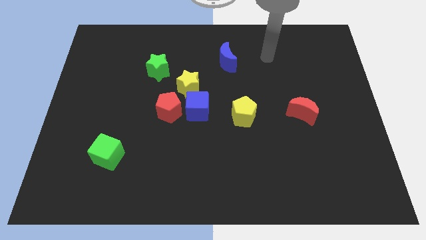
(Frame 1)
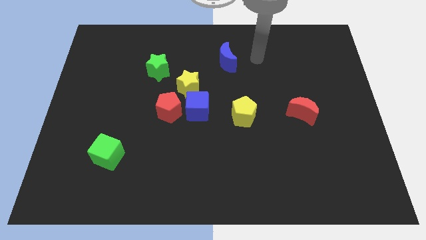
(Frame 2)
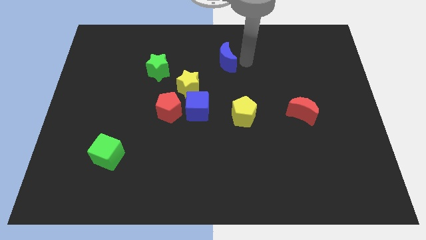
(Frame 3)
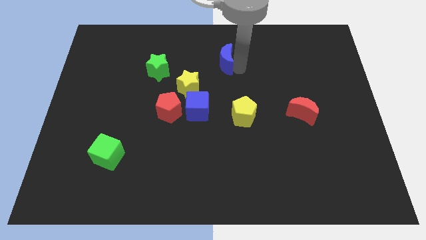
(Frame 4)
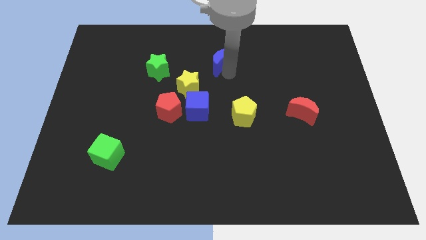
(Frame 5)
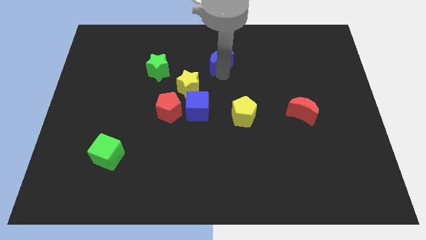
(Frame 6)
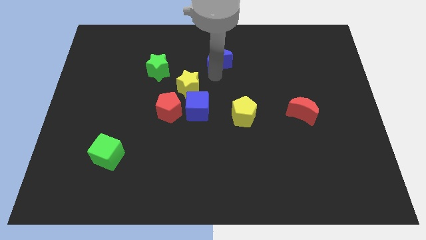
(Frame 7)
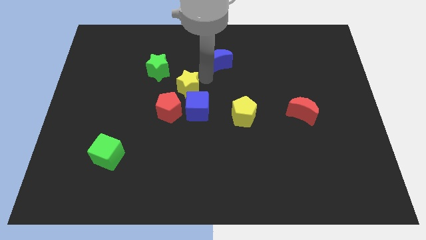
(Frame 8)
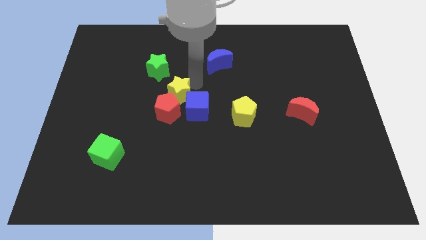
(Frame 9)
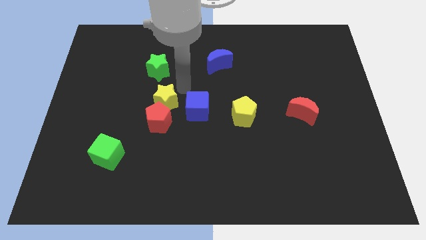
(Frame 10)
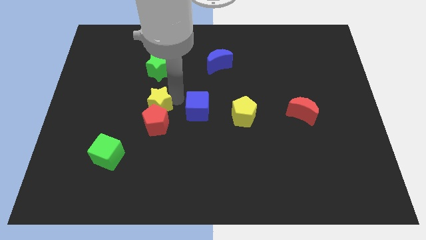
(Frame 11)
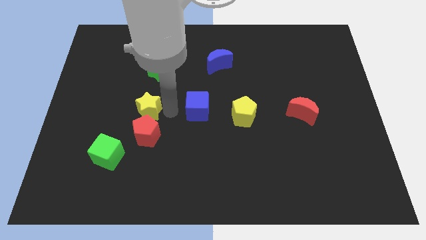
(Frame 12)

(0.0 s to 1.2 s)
pull the blue cube apart from the red pentagon and yellow star

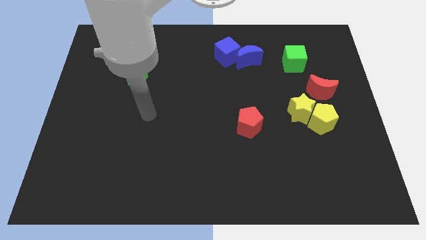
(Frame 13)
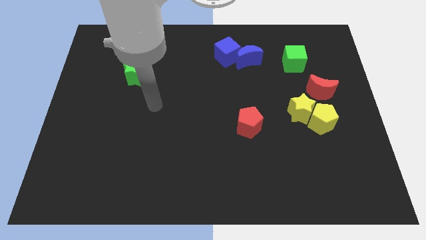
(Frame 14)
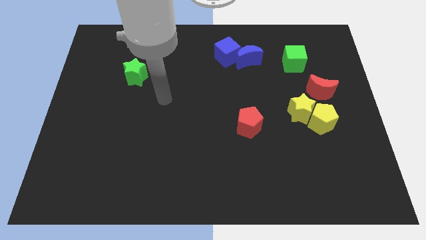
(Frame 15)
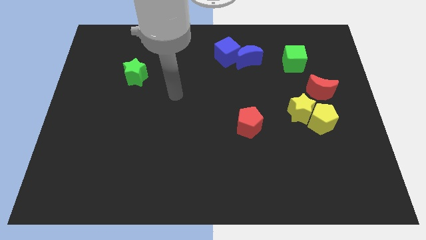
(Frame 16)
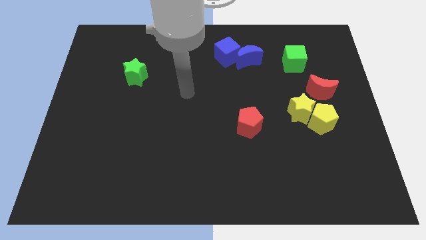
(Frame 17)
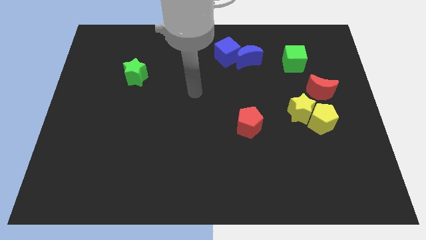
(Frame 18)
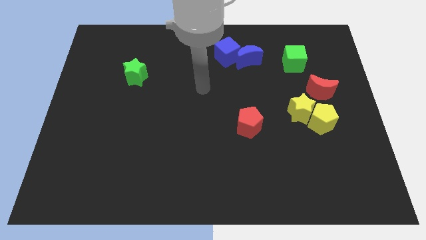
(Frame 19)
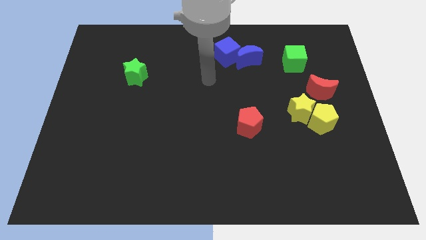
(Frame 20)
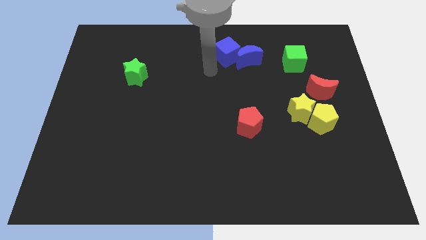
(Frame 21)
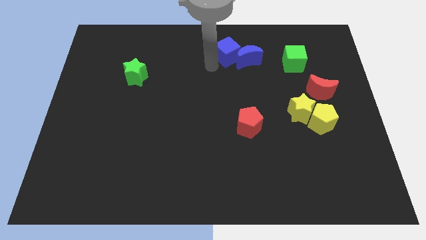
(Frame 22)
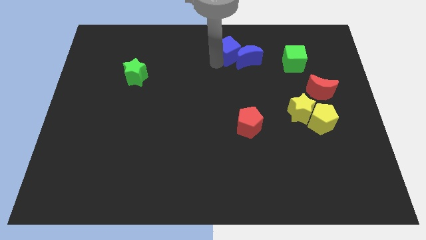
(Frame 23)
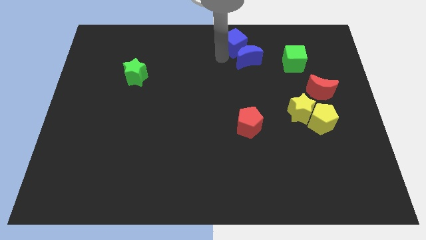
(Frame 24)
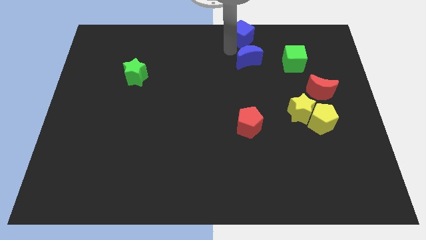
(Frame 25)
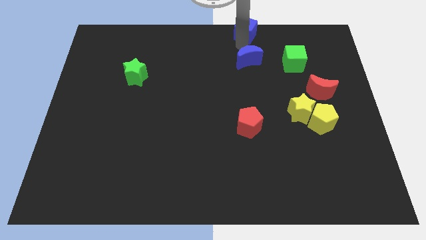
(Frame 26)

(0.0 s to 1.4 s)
pull the blue moon apart from the blue cube

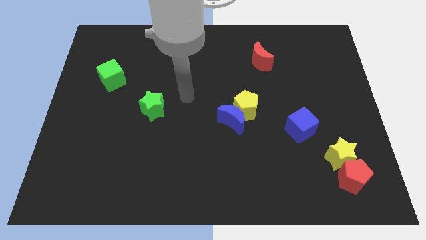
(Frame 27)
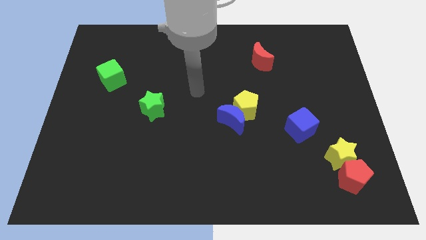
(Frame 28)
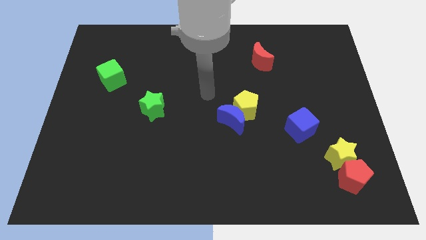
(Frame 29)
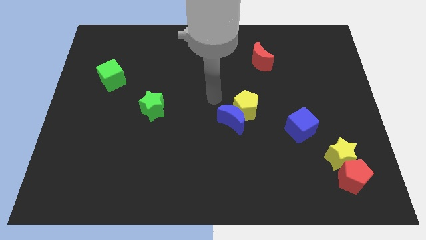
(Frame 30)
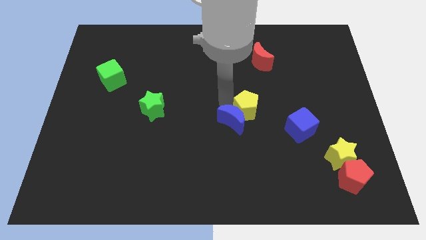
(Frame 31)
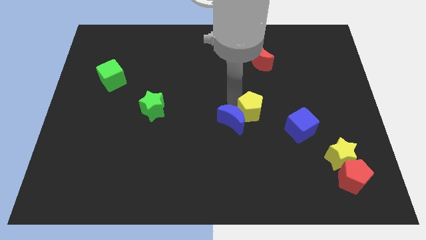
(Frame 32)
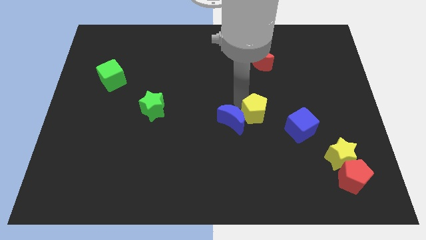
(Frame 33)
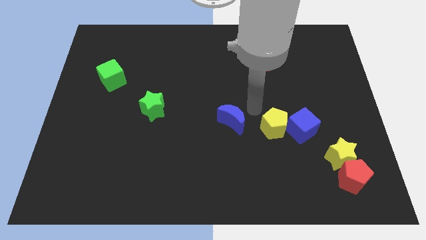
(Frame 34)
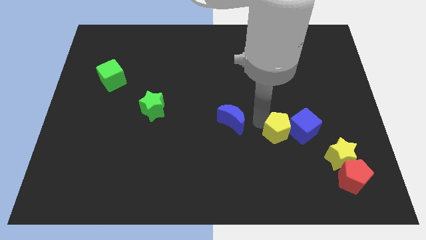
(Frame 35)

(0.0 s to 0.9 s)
separate the blue moon from the yellow pentagon

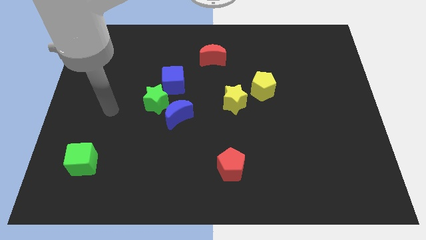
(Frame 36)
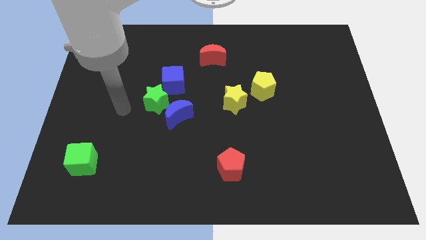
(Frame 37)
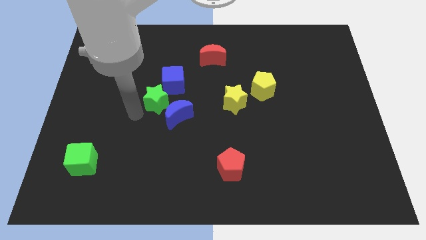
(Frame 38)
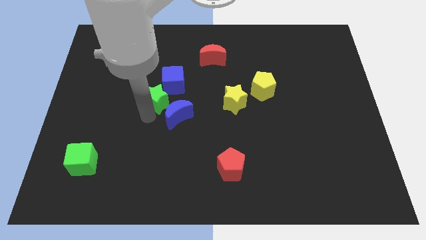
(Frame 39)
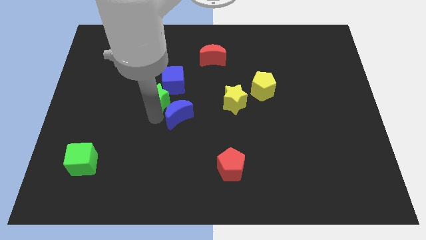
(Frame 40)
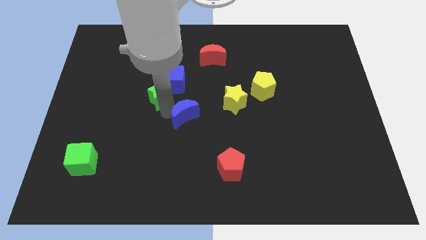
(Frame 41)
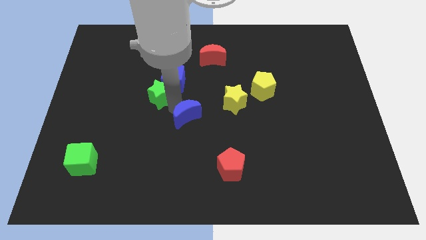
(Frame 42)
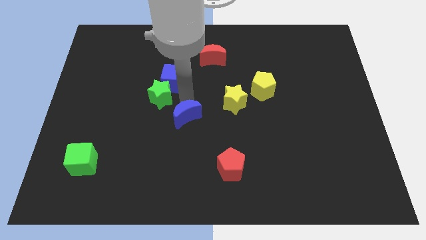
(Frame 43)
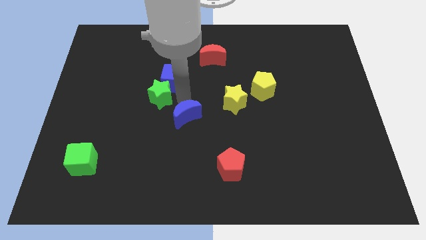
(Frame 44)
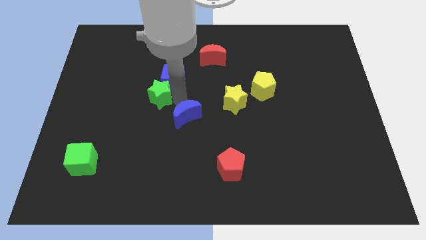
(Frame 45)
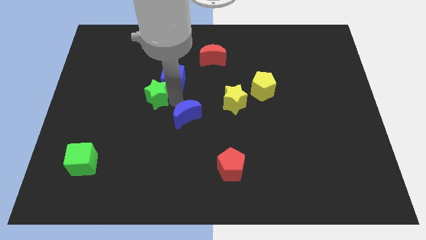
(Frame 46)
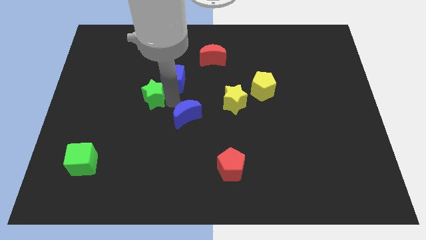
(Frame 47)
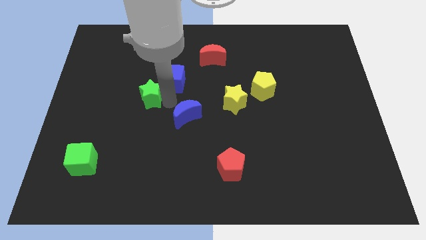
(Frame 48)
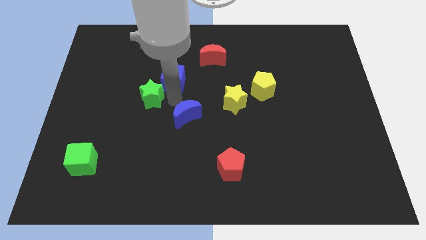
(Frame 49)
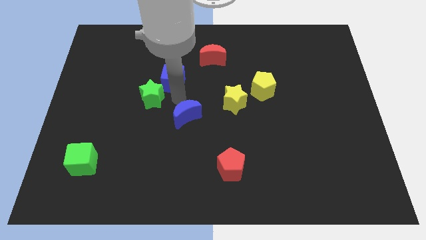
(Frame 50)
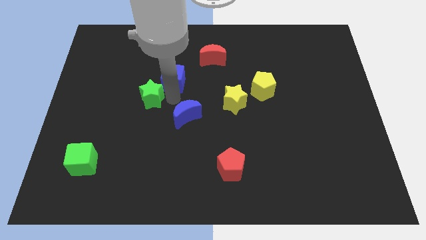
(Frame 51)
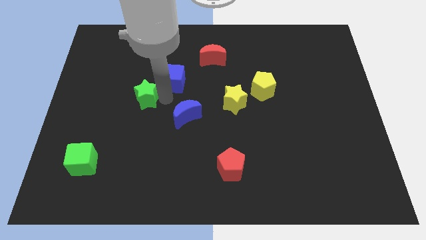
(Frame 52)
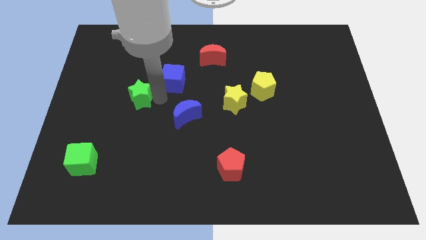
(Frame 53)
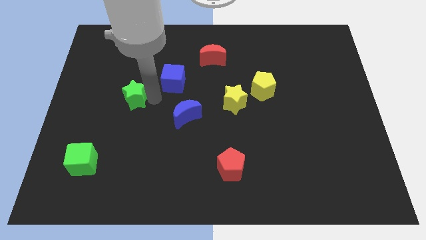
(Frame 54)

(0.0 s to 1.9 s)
separate the green star from the blue moon and blue cube

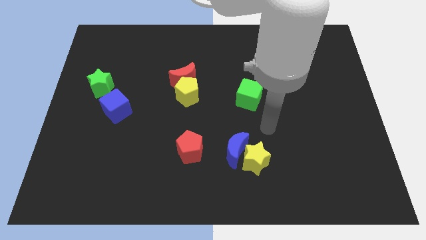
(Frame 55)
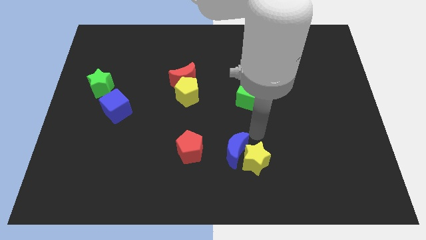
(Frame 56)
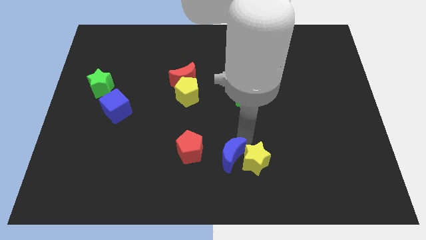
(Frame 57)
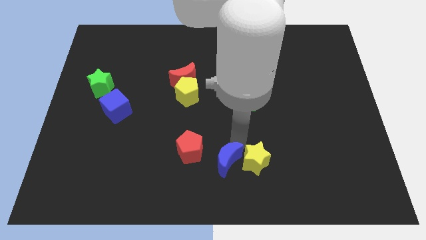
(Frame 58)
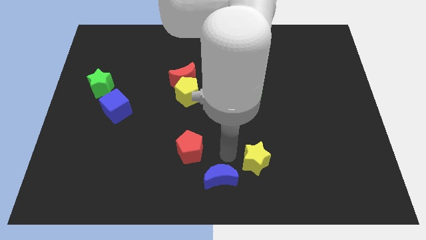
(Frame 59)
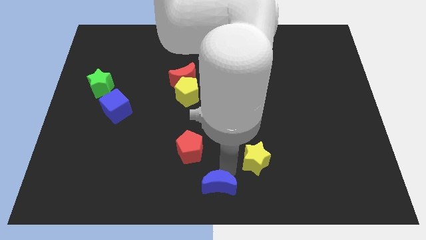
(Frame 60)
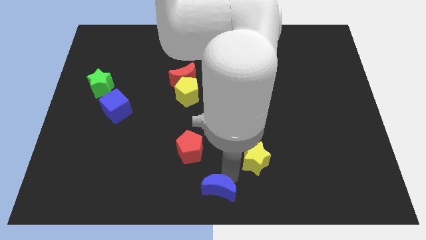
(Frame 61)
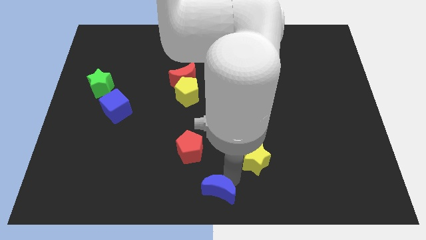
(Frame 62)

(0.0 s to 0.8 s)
pull the yellow star apart from the blue moon

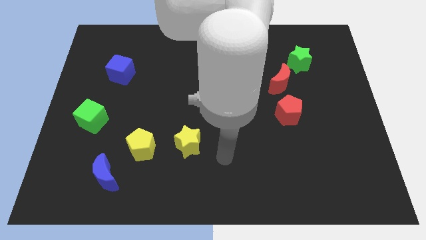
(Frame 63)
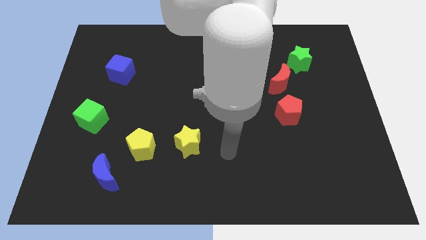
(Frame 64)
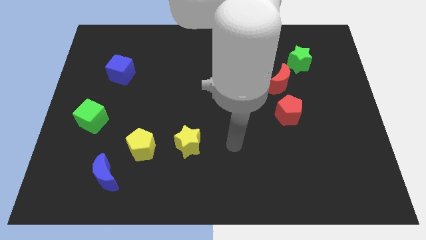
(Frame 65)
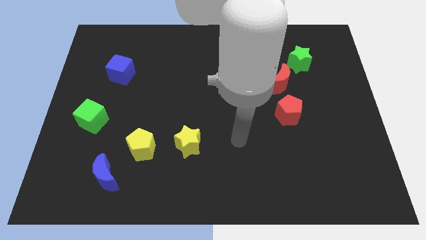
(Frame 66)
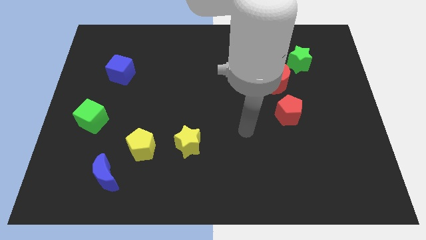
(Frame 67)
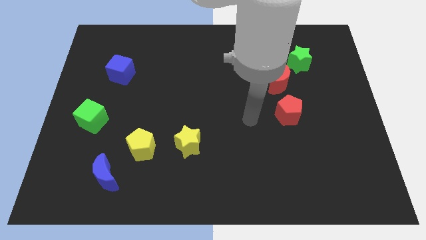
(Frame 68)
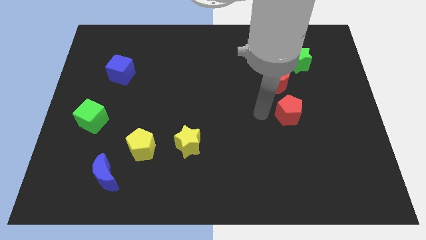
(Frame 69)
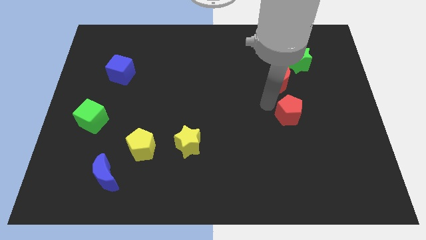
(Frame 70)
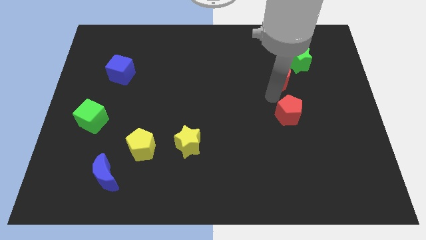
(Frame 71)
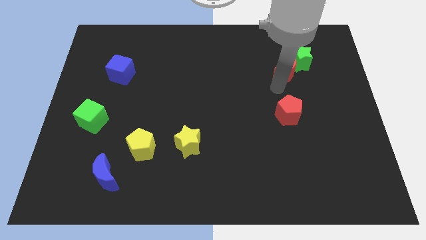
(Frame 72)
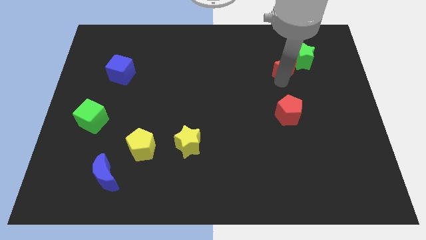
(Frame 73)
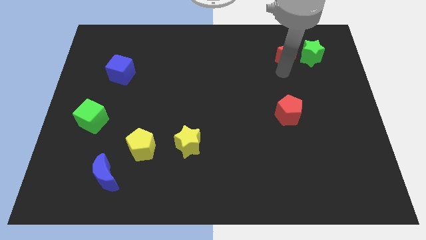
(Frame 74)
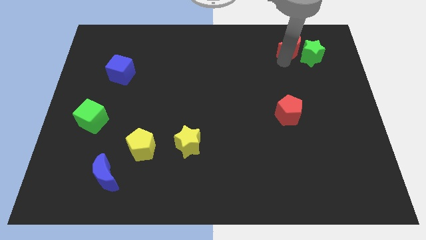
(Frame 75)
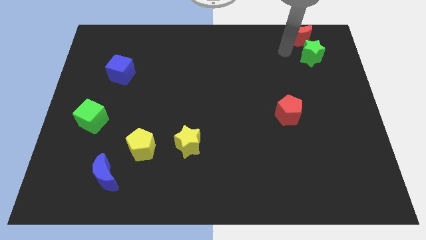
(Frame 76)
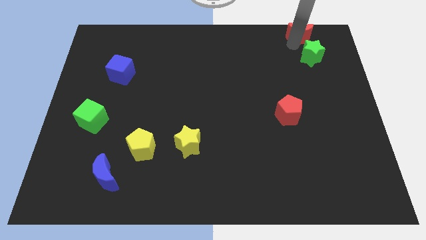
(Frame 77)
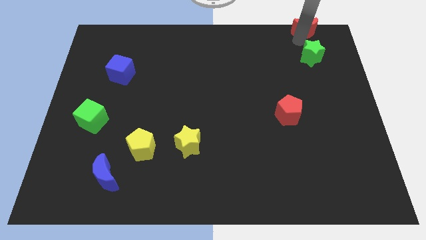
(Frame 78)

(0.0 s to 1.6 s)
pull the green star apart from the red moon

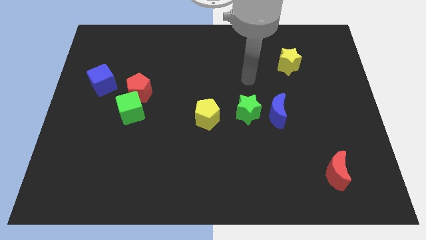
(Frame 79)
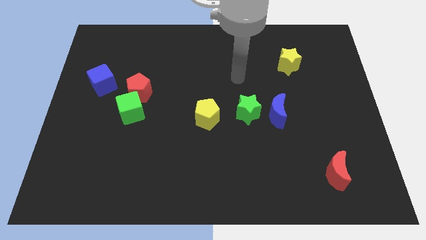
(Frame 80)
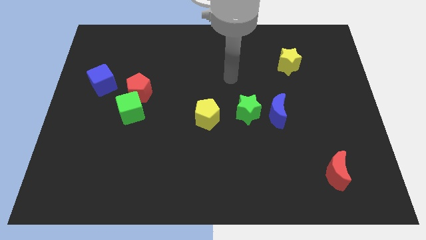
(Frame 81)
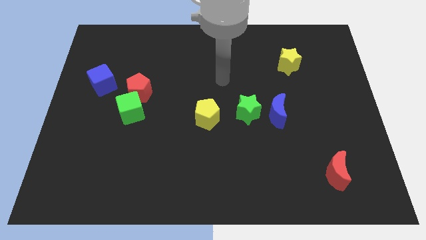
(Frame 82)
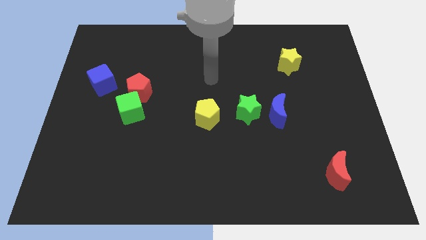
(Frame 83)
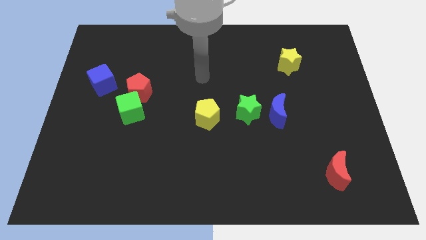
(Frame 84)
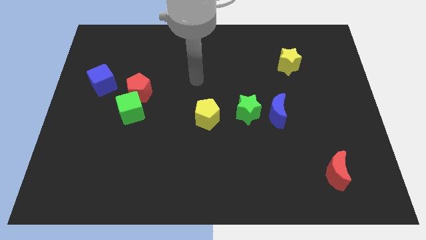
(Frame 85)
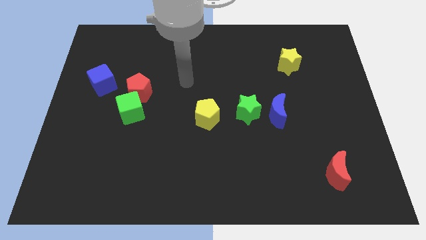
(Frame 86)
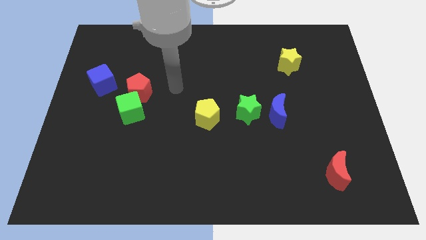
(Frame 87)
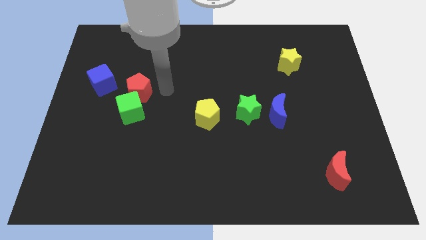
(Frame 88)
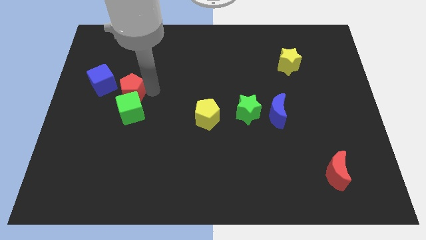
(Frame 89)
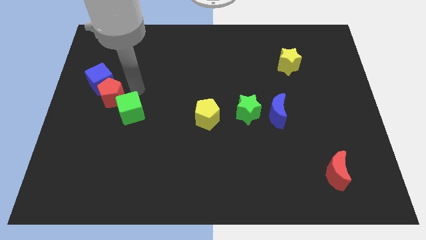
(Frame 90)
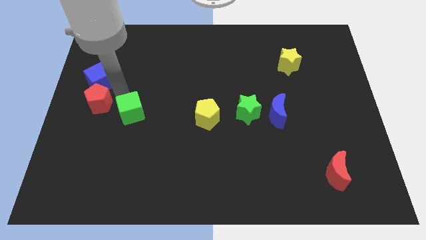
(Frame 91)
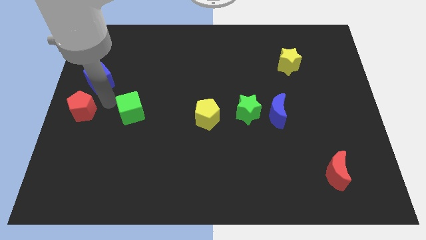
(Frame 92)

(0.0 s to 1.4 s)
separate the green cube from the red pentagon

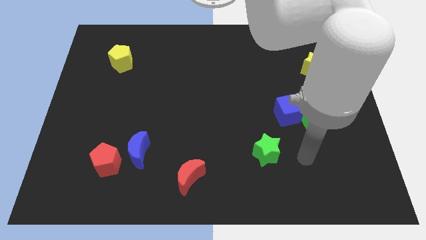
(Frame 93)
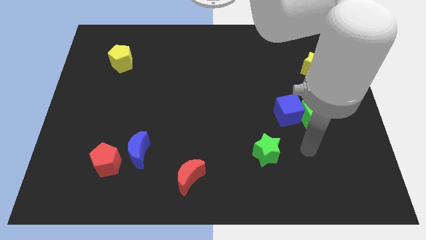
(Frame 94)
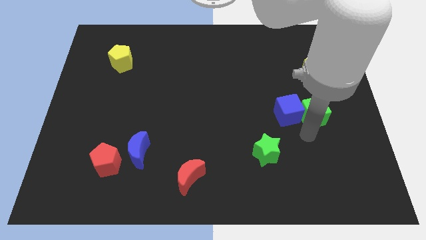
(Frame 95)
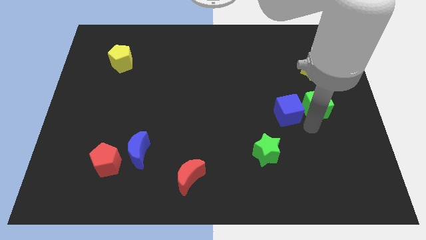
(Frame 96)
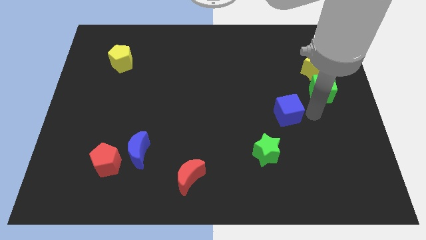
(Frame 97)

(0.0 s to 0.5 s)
move the blue cube away from the green cube
